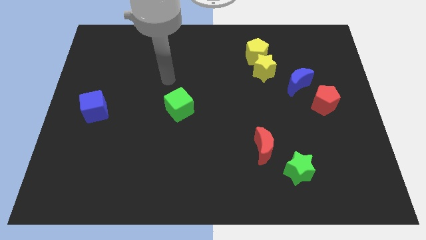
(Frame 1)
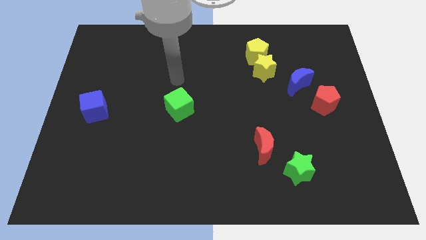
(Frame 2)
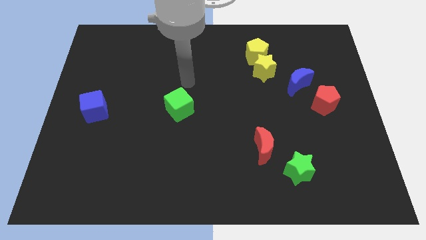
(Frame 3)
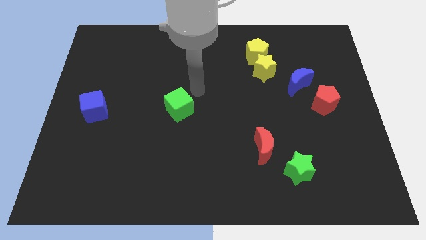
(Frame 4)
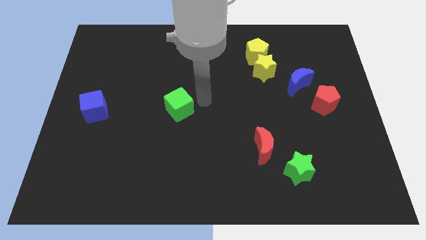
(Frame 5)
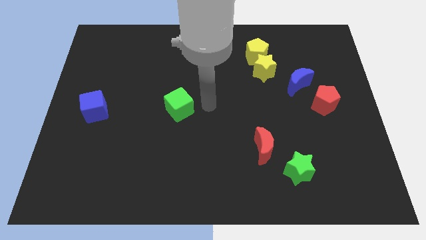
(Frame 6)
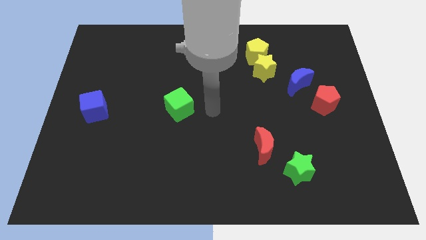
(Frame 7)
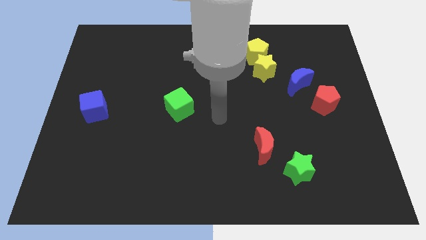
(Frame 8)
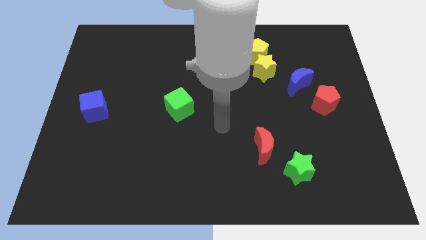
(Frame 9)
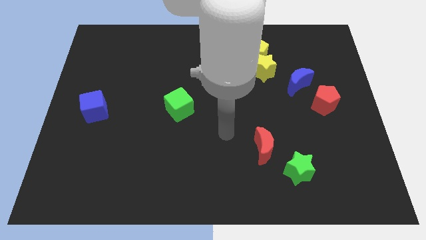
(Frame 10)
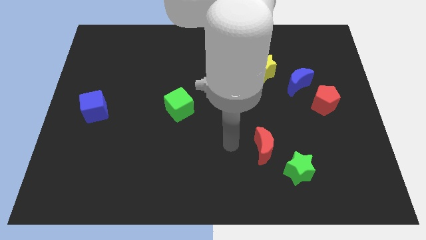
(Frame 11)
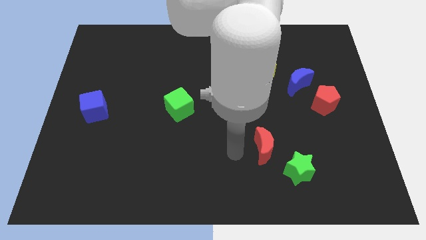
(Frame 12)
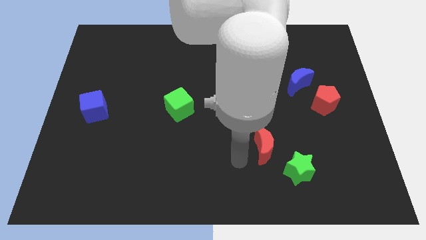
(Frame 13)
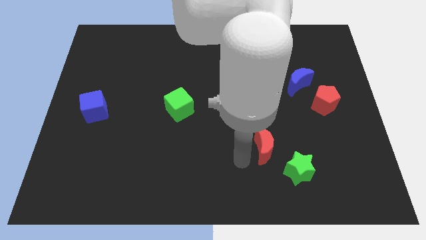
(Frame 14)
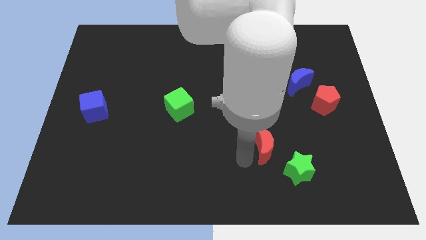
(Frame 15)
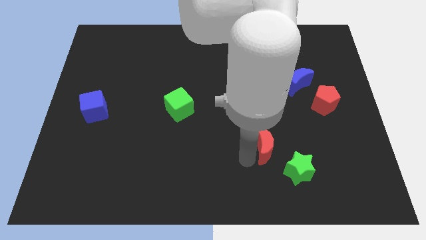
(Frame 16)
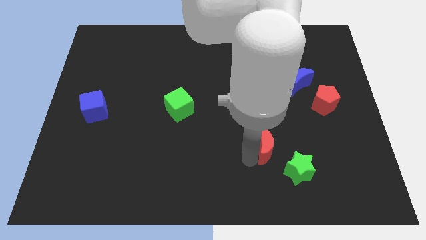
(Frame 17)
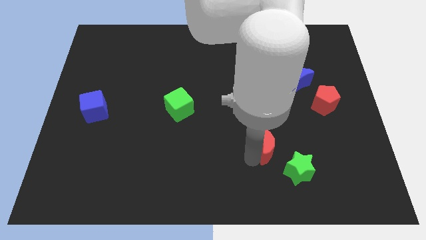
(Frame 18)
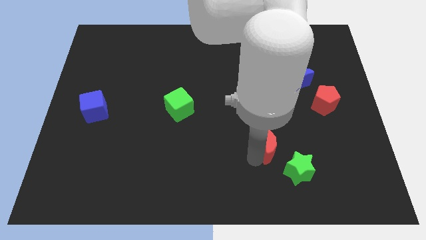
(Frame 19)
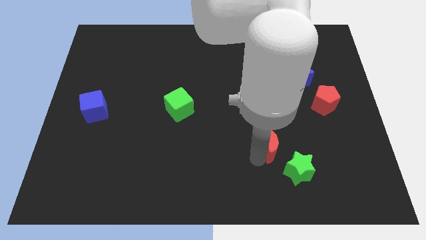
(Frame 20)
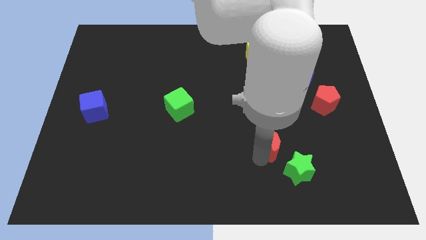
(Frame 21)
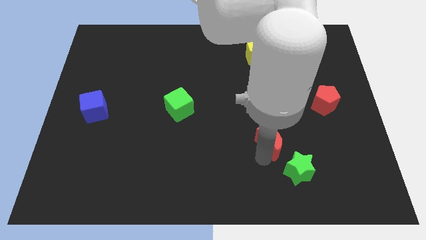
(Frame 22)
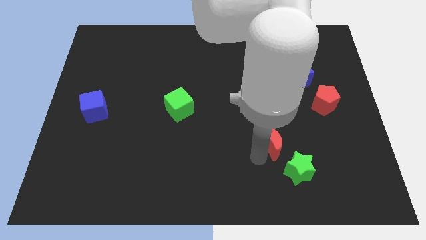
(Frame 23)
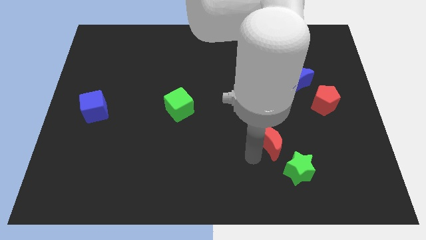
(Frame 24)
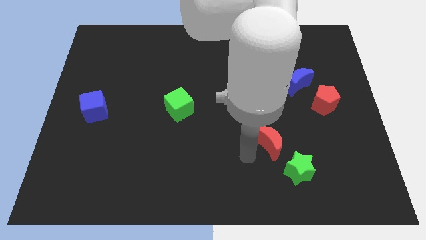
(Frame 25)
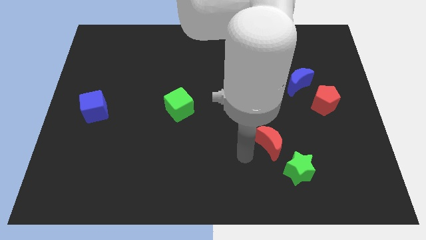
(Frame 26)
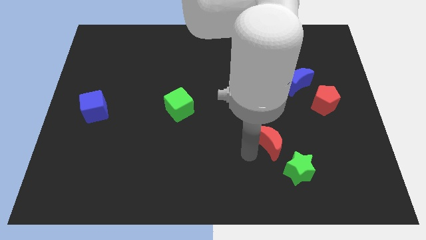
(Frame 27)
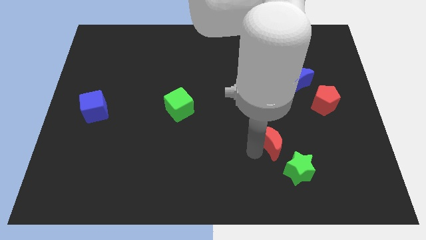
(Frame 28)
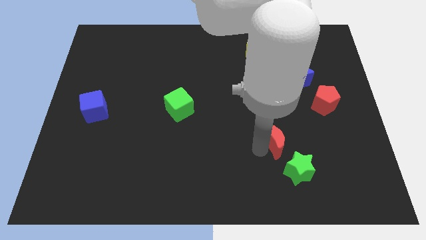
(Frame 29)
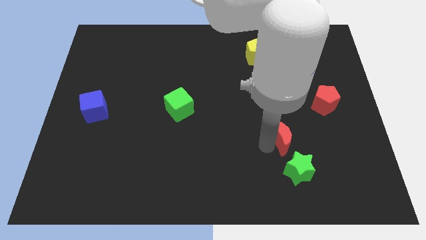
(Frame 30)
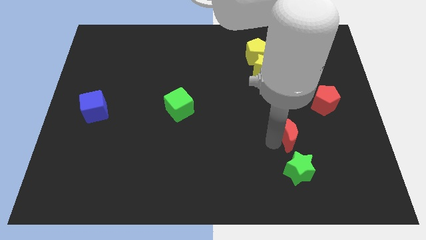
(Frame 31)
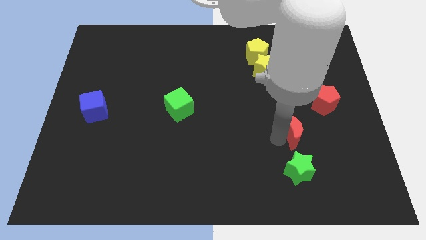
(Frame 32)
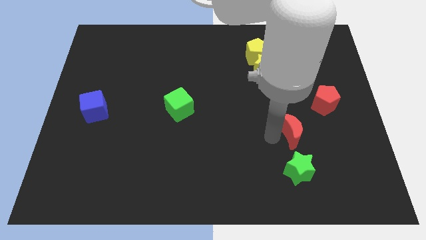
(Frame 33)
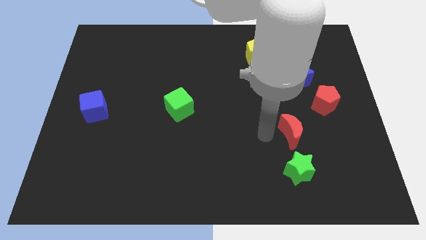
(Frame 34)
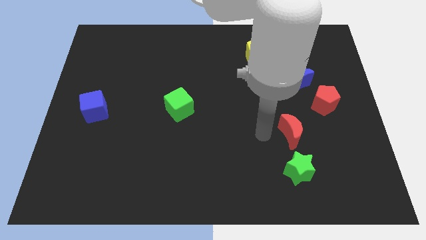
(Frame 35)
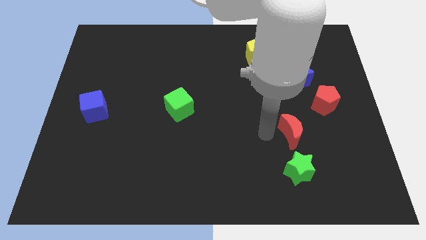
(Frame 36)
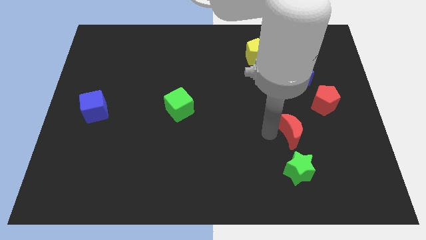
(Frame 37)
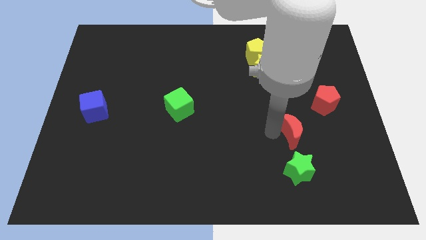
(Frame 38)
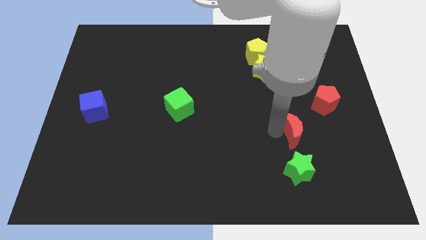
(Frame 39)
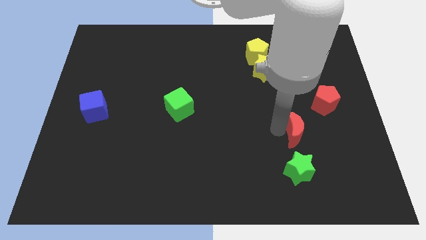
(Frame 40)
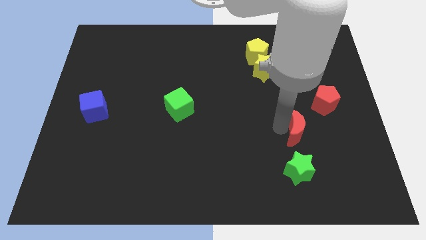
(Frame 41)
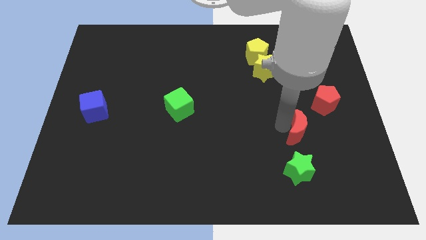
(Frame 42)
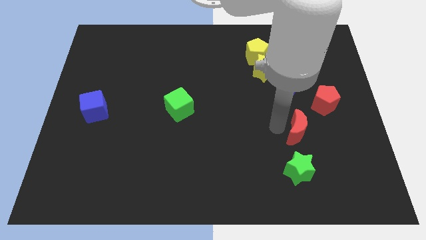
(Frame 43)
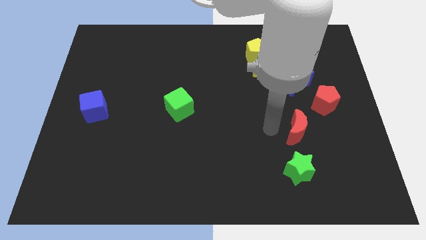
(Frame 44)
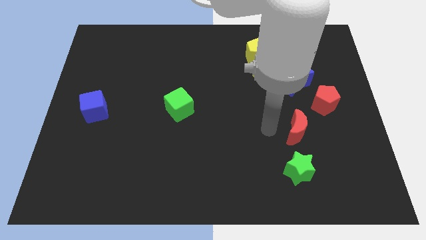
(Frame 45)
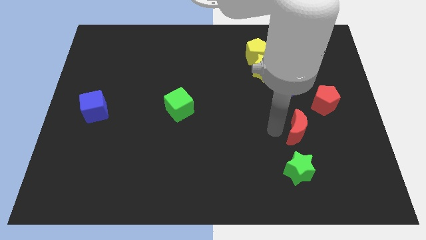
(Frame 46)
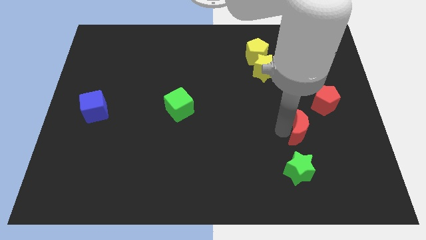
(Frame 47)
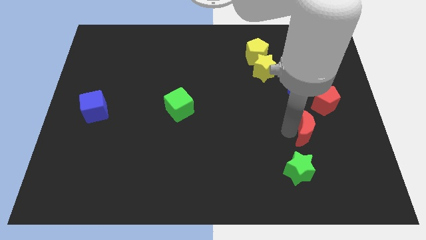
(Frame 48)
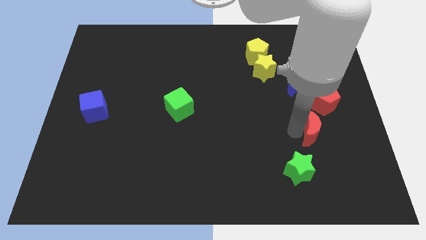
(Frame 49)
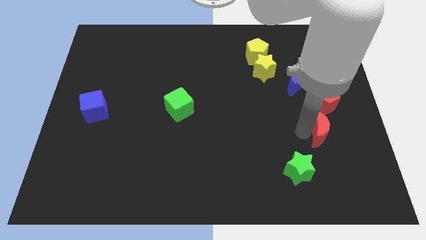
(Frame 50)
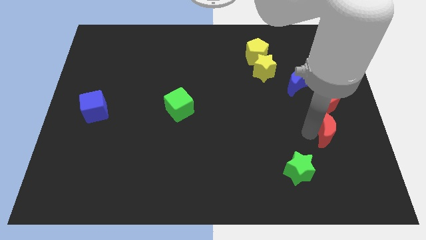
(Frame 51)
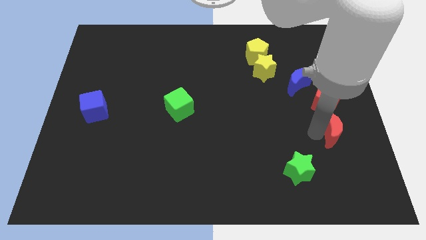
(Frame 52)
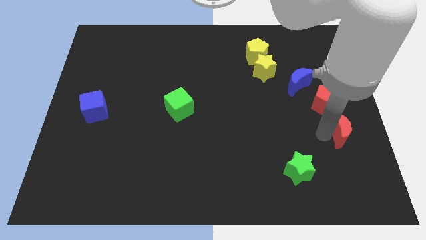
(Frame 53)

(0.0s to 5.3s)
move the red moon to the center right
